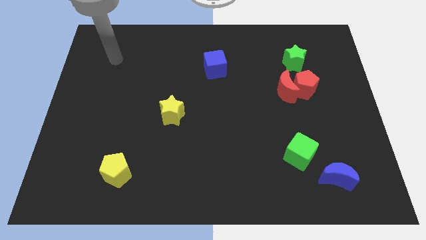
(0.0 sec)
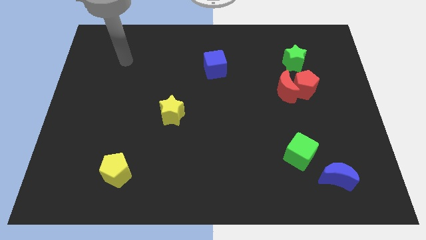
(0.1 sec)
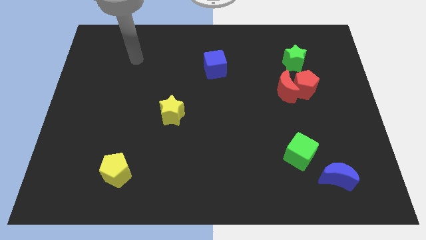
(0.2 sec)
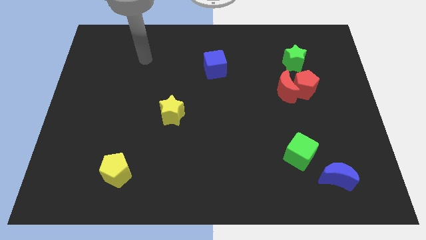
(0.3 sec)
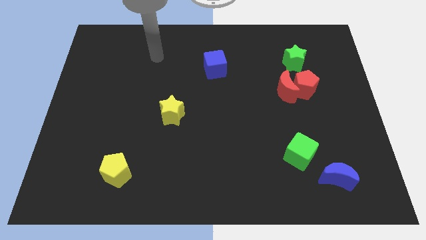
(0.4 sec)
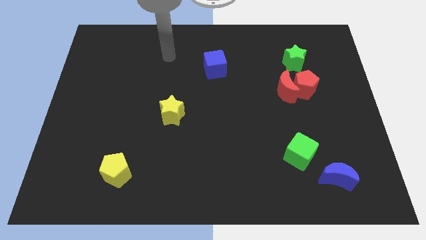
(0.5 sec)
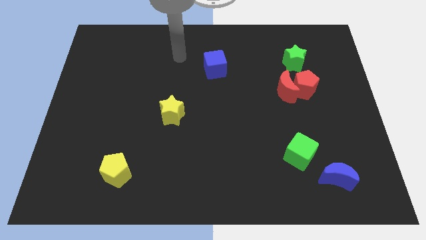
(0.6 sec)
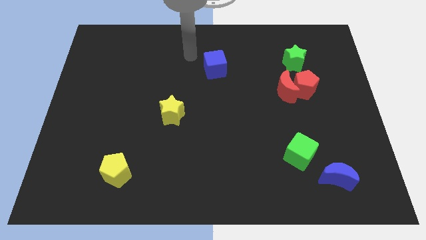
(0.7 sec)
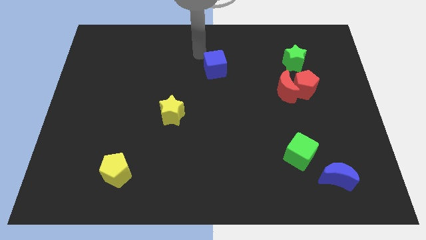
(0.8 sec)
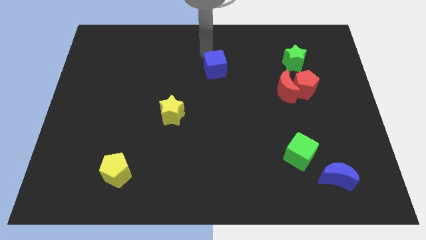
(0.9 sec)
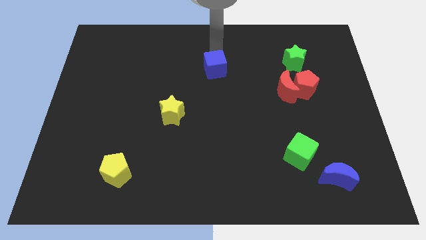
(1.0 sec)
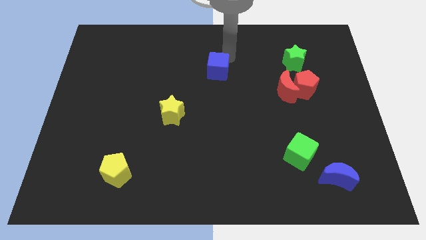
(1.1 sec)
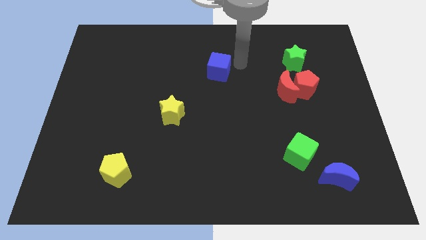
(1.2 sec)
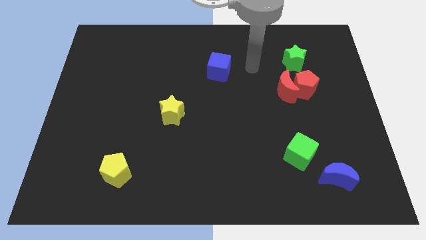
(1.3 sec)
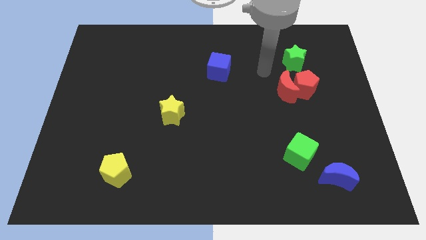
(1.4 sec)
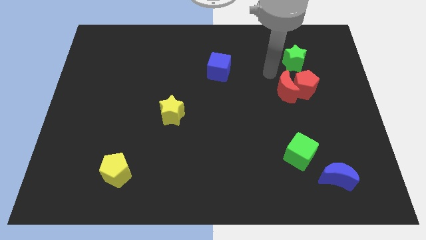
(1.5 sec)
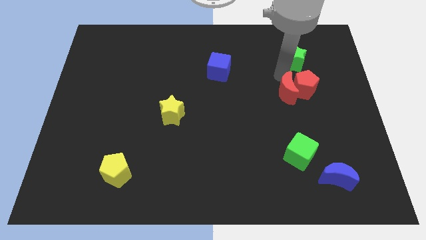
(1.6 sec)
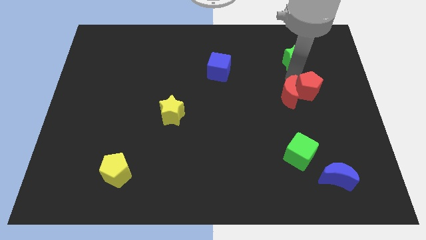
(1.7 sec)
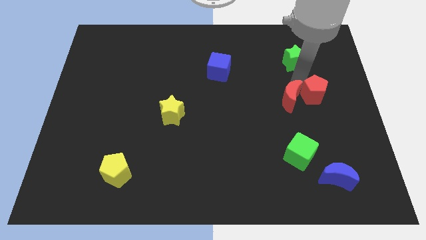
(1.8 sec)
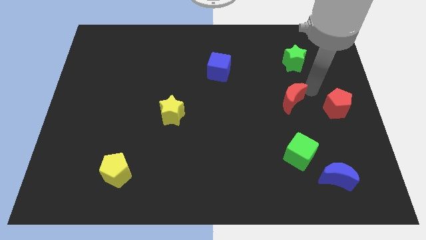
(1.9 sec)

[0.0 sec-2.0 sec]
pull the red moon apart from the red pentagon

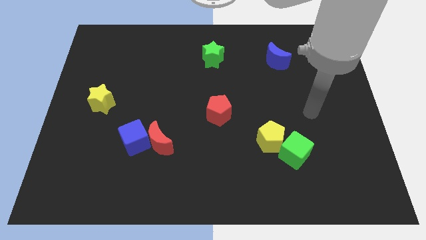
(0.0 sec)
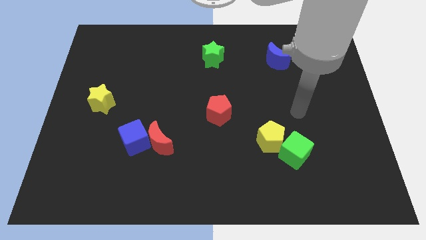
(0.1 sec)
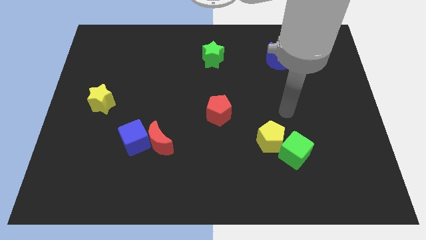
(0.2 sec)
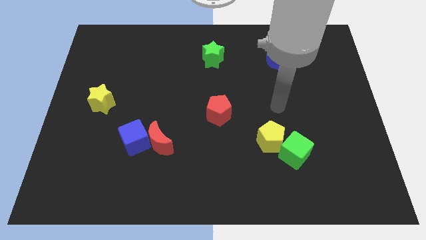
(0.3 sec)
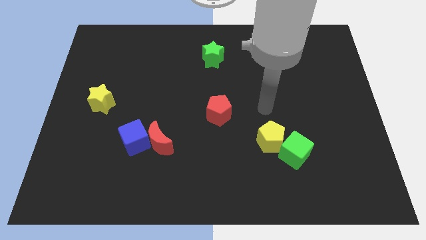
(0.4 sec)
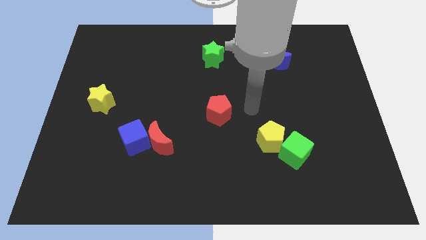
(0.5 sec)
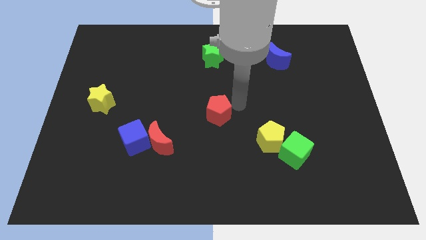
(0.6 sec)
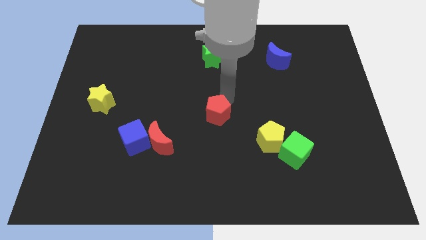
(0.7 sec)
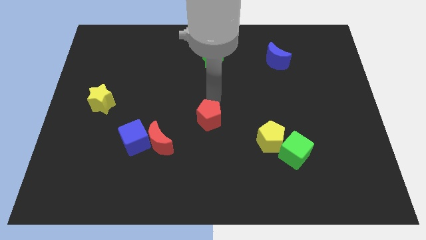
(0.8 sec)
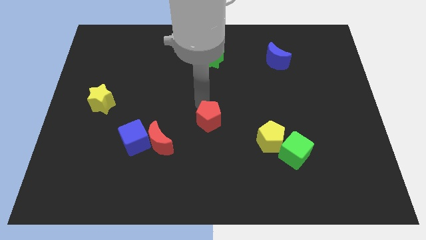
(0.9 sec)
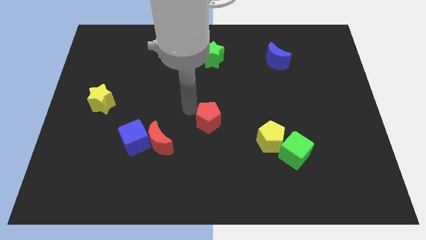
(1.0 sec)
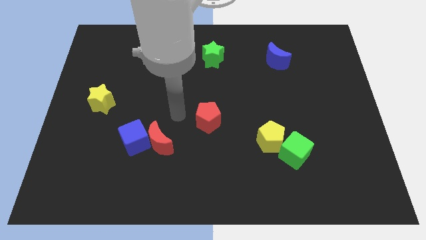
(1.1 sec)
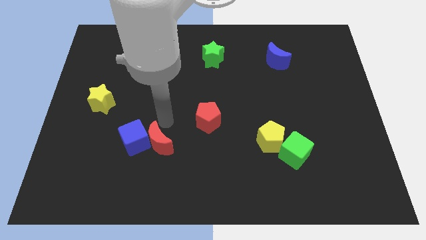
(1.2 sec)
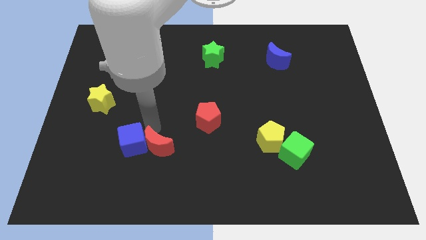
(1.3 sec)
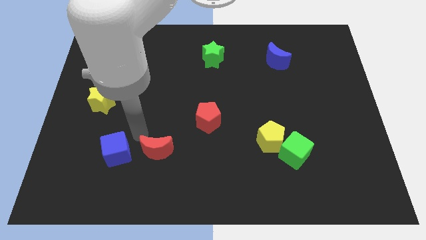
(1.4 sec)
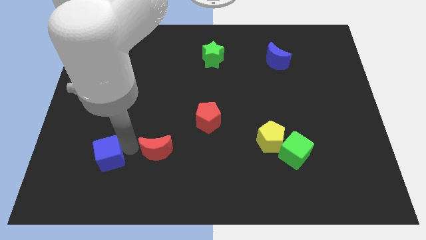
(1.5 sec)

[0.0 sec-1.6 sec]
pull the red moon apart from the blue cube

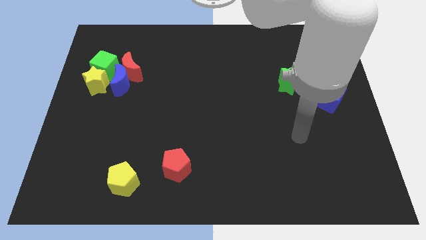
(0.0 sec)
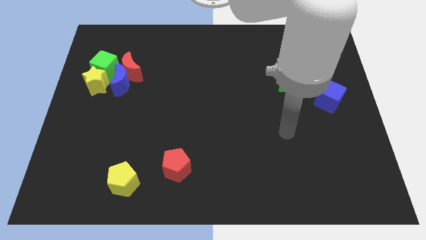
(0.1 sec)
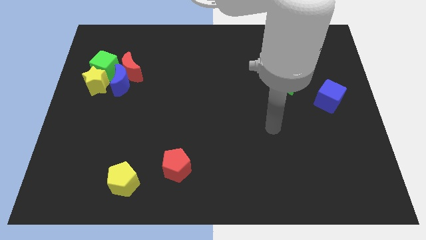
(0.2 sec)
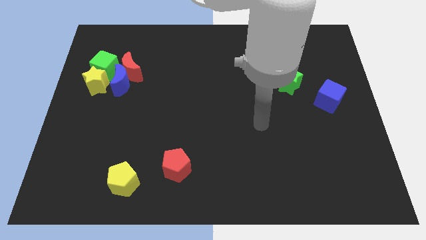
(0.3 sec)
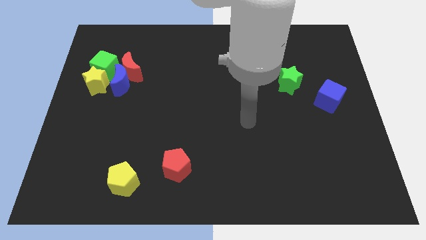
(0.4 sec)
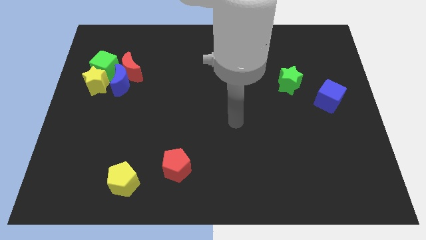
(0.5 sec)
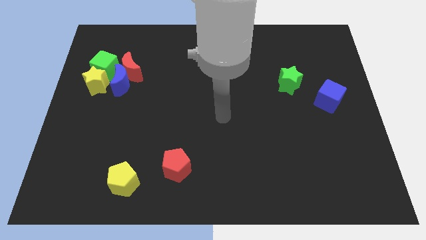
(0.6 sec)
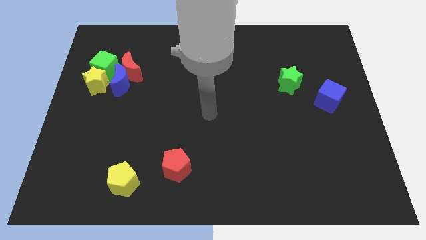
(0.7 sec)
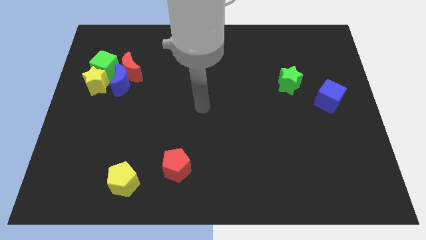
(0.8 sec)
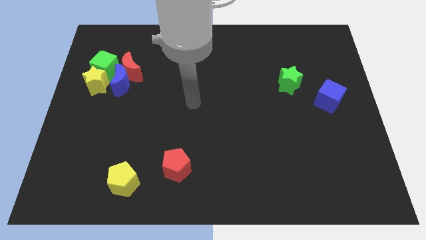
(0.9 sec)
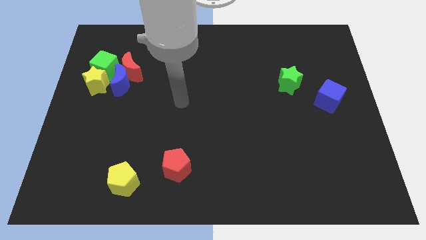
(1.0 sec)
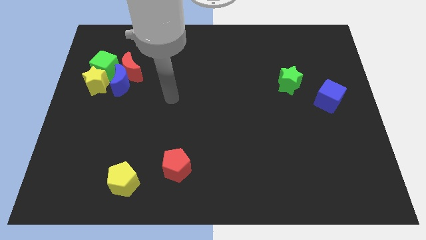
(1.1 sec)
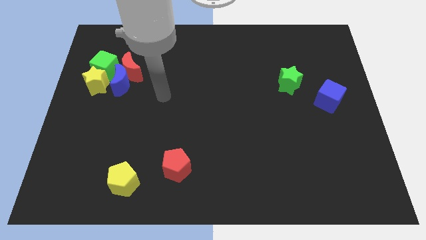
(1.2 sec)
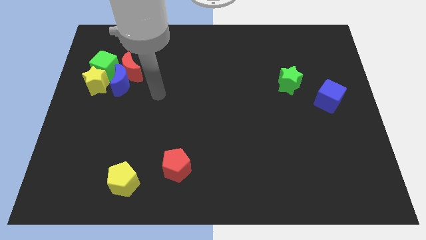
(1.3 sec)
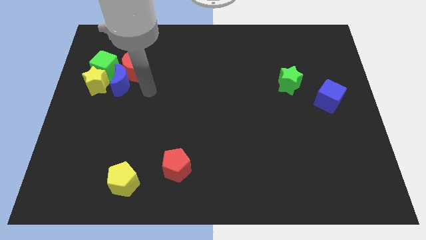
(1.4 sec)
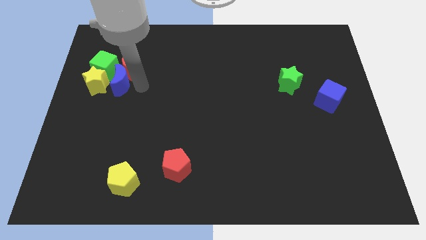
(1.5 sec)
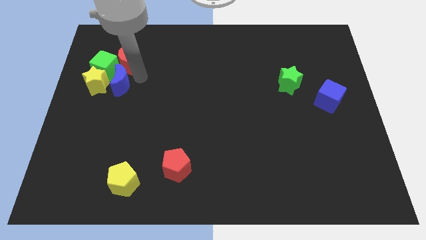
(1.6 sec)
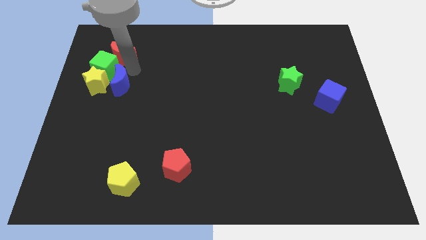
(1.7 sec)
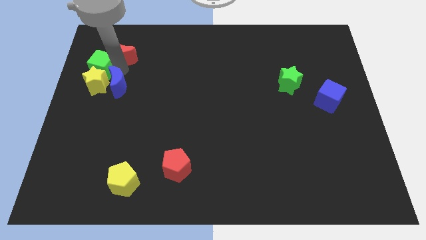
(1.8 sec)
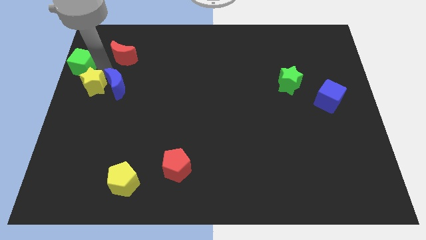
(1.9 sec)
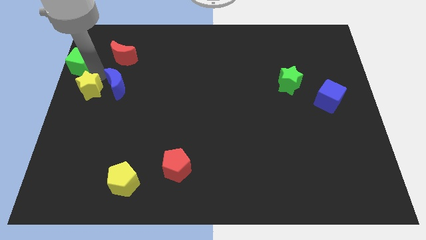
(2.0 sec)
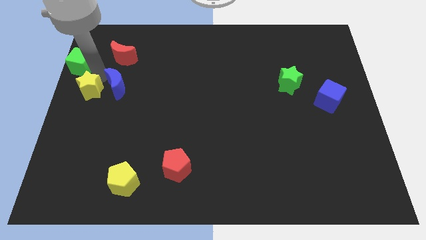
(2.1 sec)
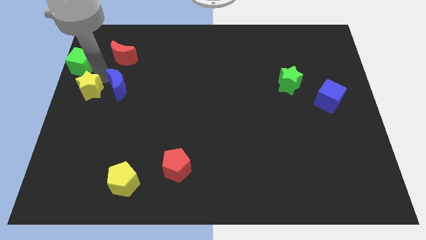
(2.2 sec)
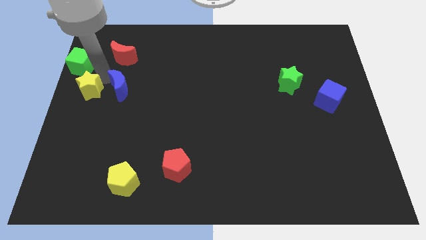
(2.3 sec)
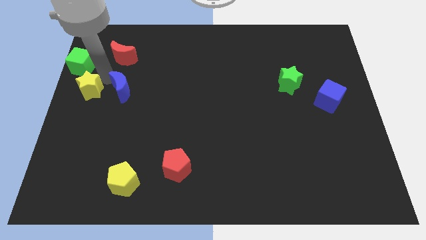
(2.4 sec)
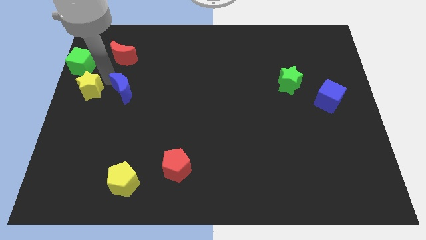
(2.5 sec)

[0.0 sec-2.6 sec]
separate the blue moon from the group of blocks

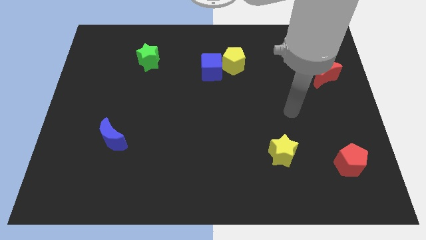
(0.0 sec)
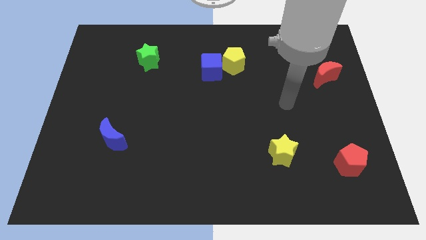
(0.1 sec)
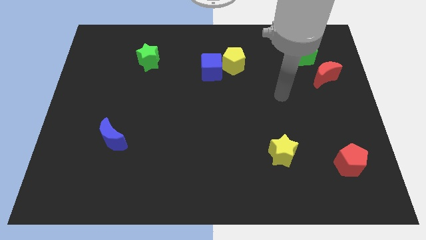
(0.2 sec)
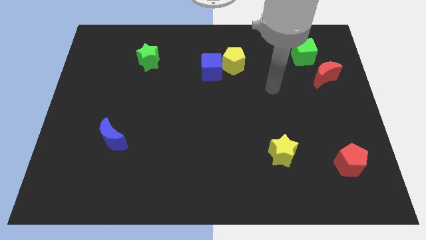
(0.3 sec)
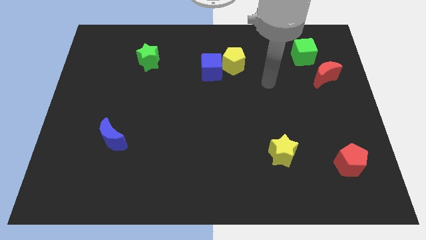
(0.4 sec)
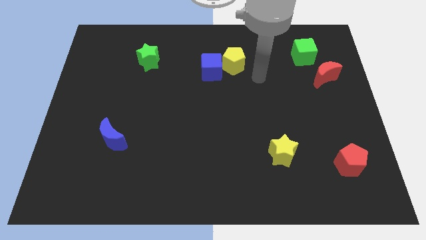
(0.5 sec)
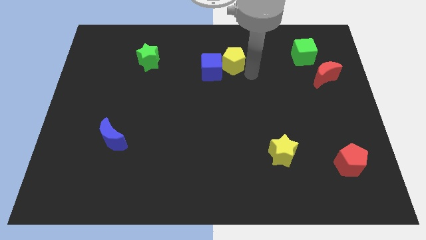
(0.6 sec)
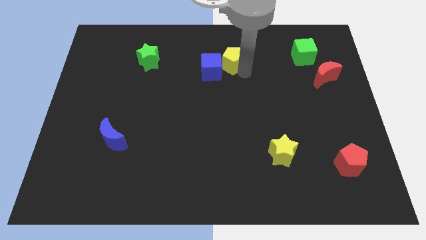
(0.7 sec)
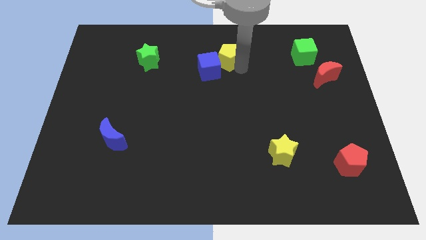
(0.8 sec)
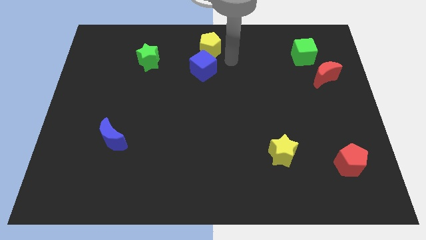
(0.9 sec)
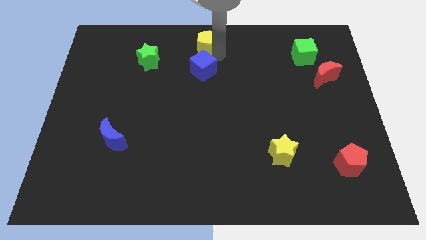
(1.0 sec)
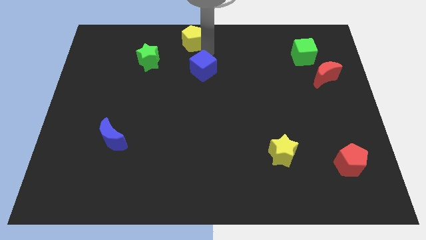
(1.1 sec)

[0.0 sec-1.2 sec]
separate the blue cube from the yellow pentagon

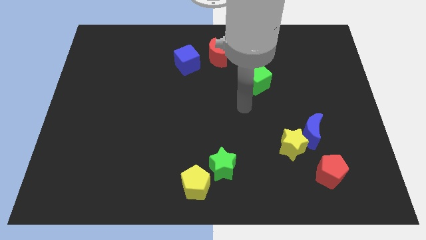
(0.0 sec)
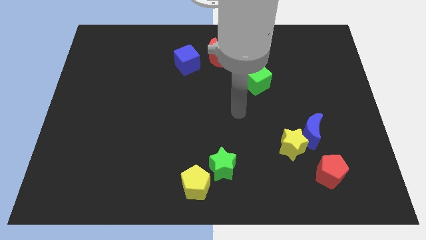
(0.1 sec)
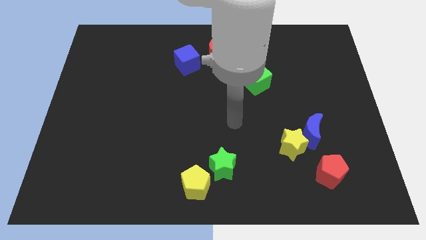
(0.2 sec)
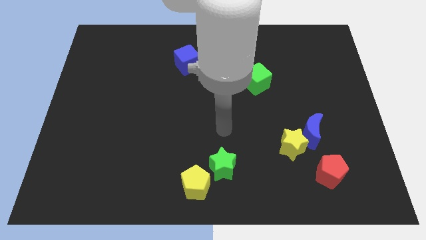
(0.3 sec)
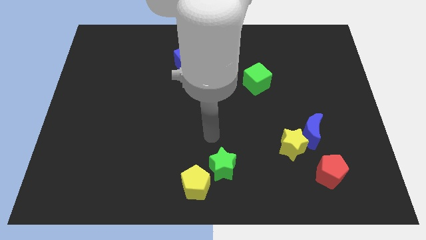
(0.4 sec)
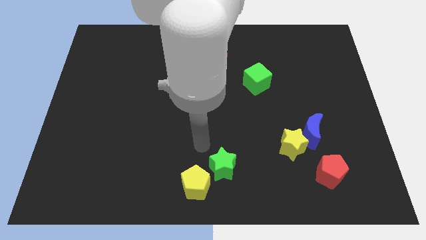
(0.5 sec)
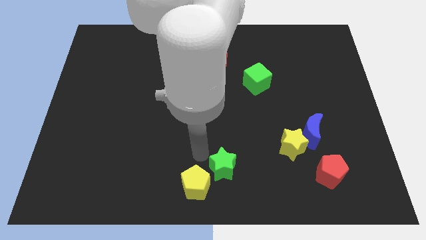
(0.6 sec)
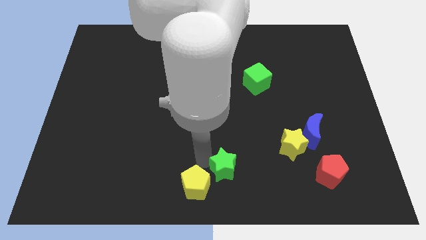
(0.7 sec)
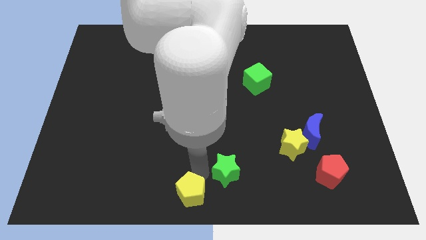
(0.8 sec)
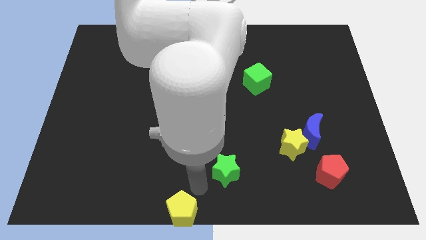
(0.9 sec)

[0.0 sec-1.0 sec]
move the green star away from the yellow pentagon

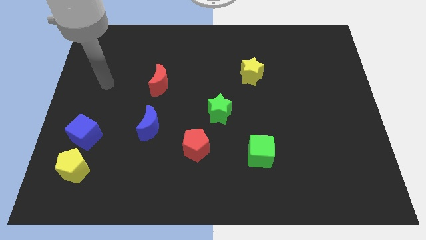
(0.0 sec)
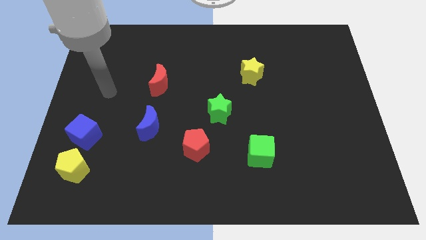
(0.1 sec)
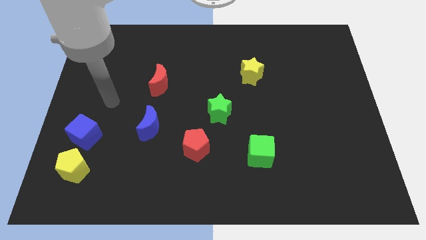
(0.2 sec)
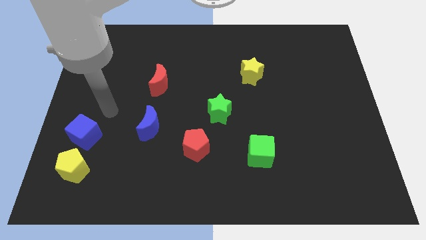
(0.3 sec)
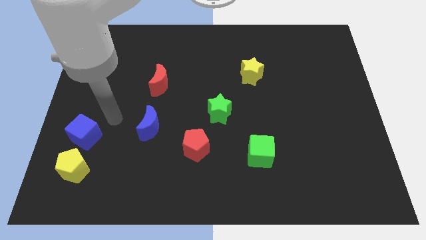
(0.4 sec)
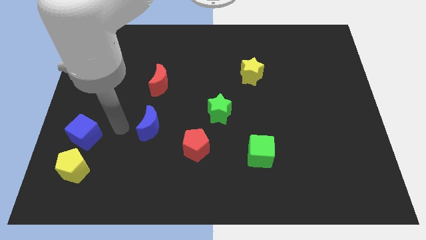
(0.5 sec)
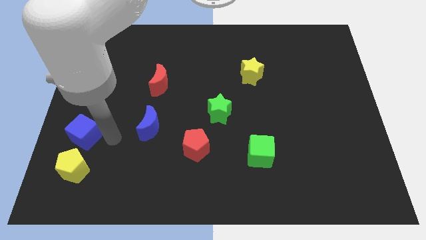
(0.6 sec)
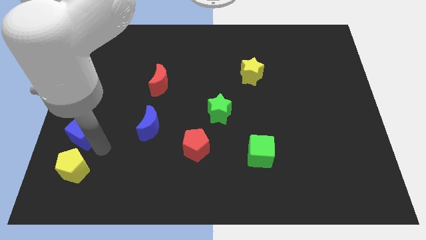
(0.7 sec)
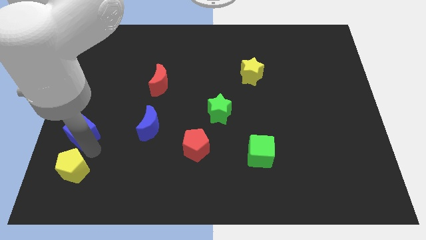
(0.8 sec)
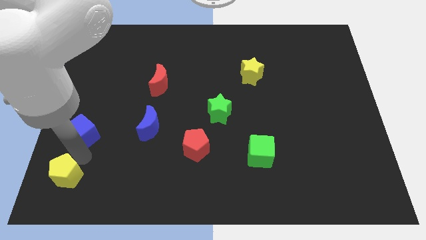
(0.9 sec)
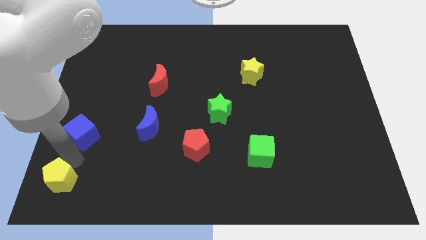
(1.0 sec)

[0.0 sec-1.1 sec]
move the blue cube away from the yellow pentagon

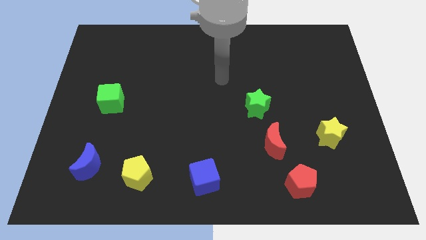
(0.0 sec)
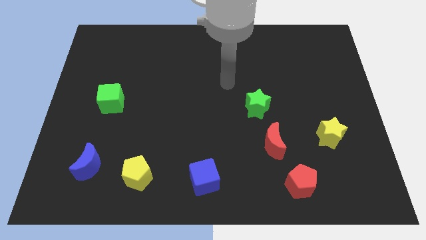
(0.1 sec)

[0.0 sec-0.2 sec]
pull the red moon apart from the green star
